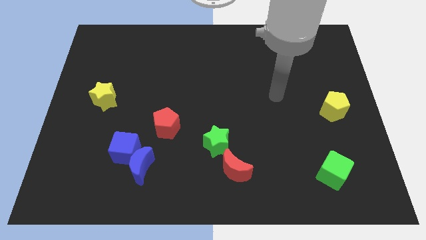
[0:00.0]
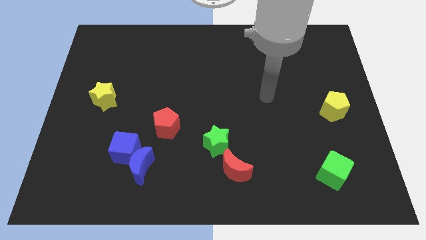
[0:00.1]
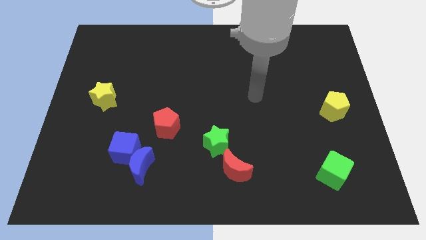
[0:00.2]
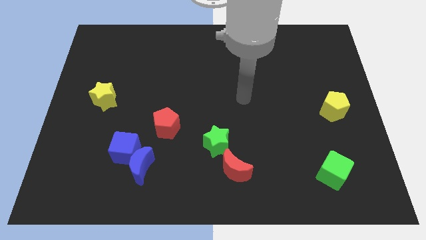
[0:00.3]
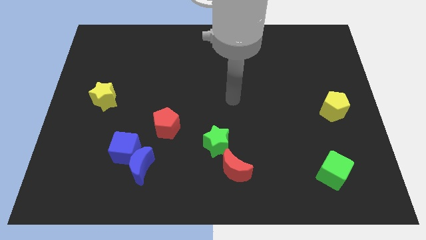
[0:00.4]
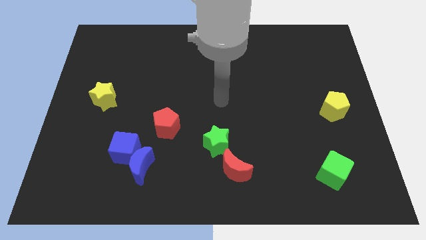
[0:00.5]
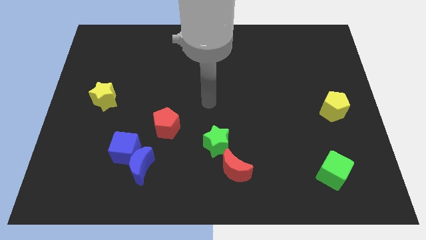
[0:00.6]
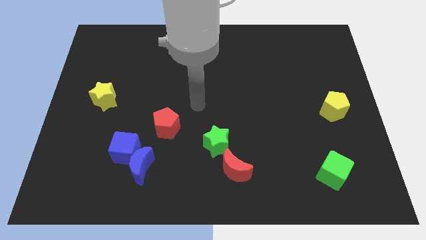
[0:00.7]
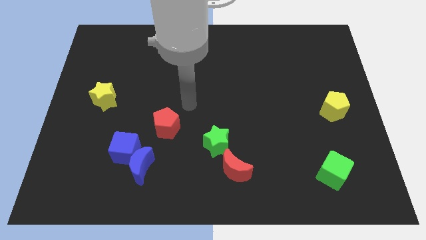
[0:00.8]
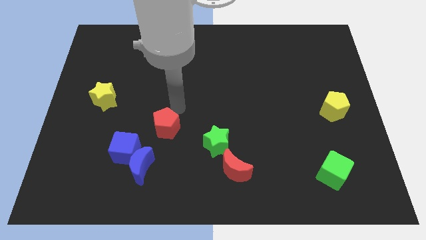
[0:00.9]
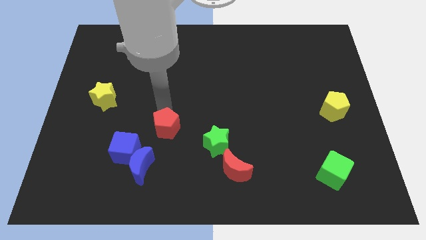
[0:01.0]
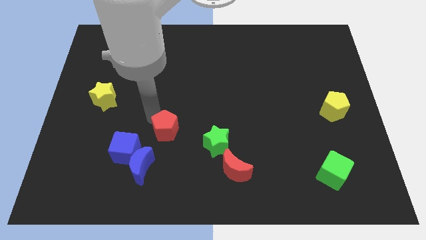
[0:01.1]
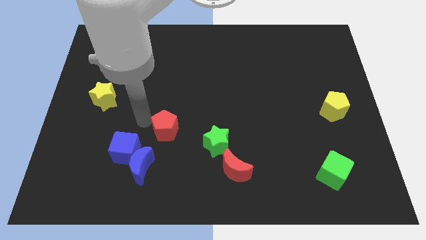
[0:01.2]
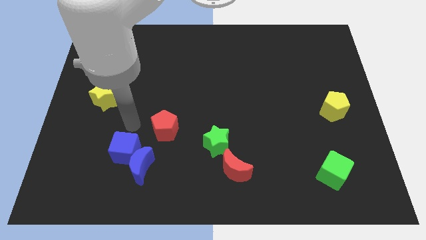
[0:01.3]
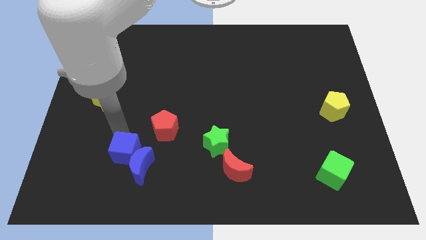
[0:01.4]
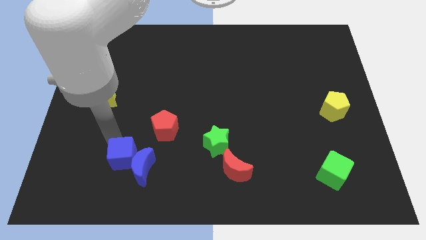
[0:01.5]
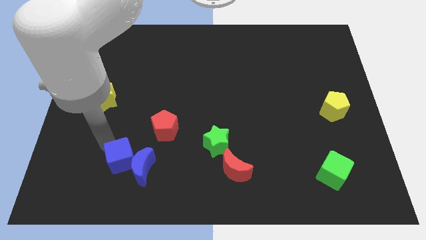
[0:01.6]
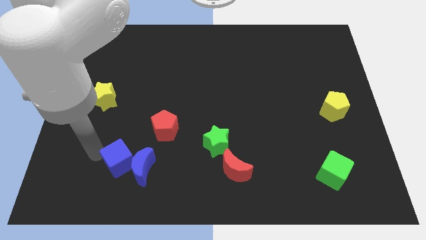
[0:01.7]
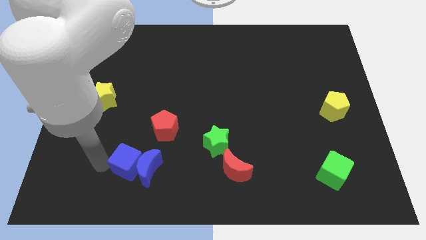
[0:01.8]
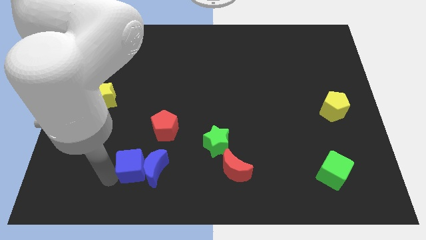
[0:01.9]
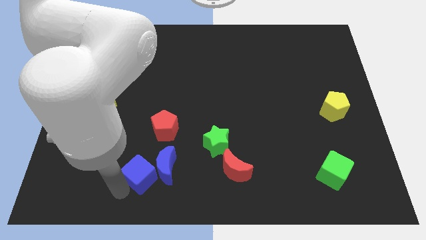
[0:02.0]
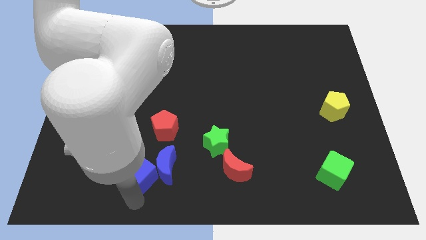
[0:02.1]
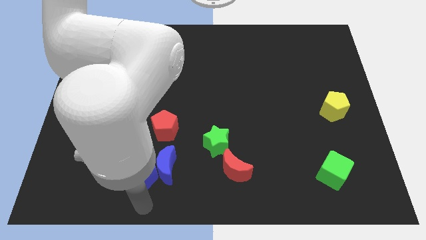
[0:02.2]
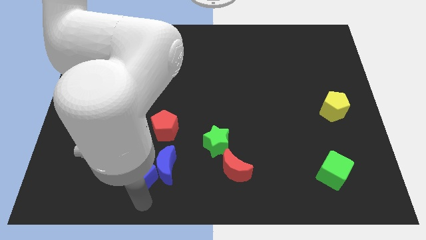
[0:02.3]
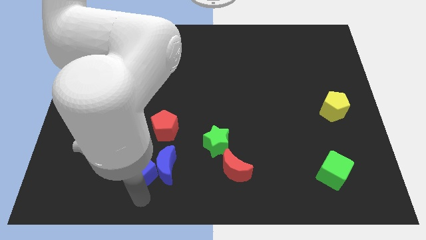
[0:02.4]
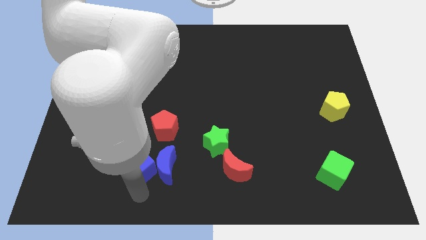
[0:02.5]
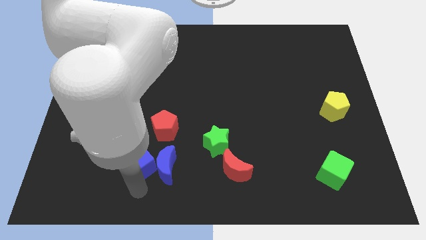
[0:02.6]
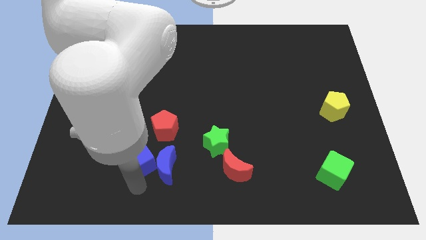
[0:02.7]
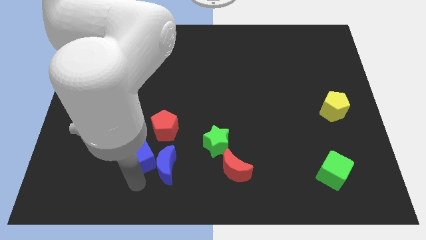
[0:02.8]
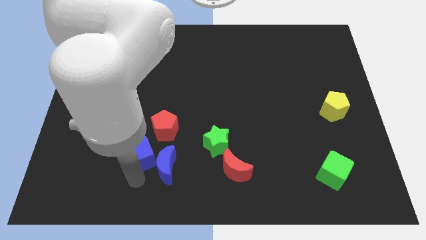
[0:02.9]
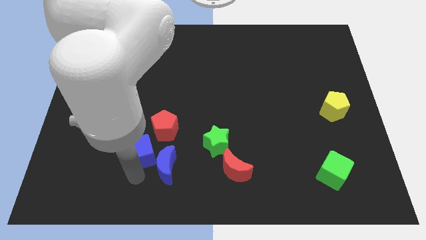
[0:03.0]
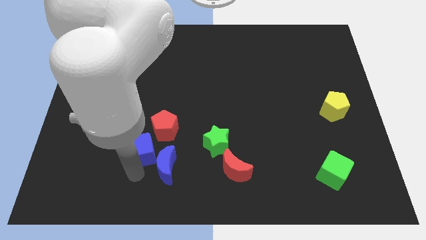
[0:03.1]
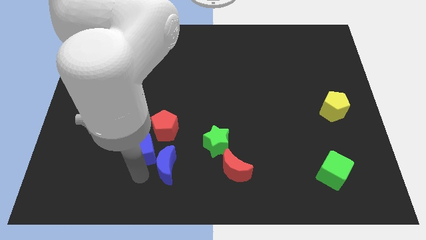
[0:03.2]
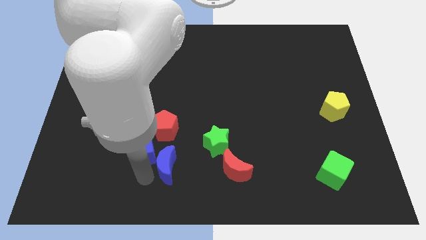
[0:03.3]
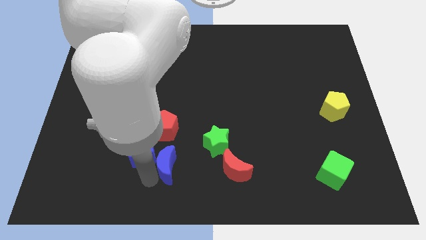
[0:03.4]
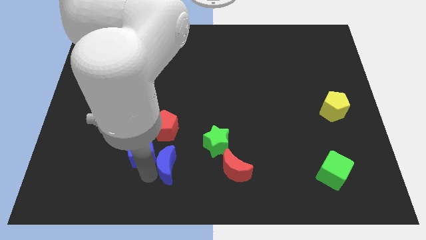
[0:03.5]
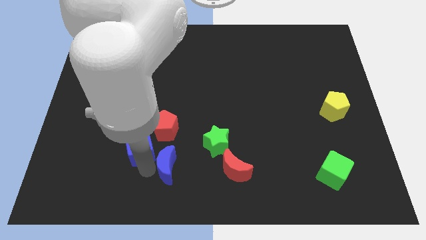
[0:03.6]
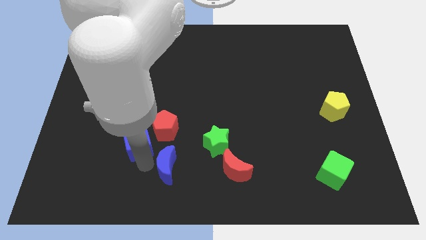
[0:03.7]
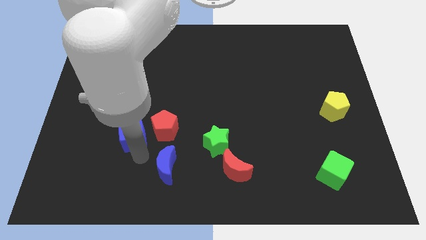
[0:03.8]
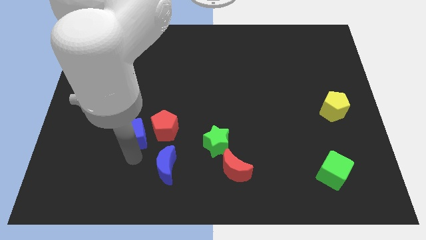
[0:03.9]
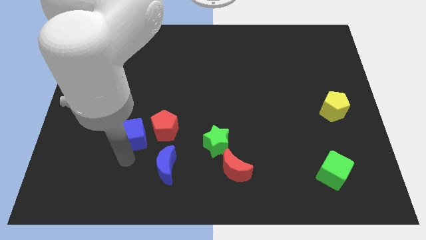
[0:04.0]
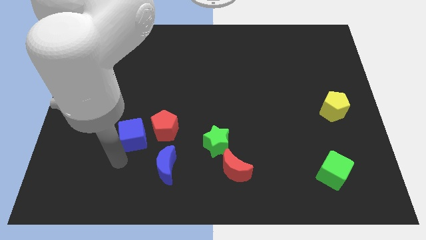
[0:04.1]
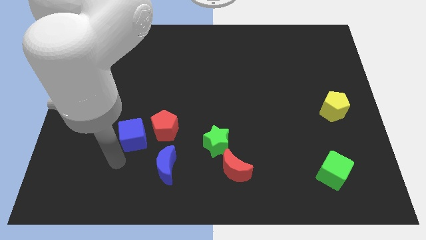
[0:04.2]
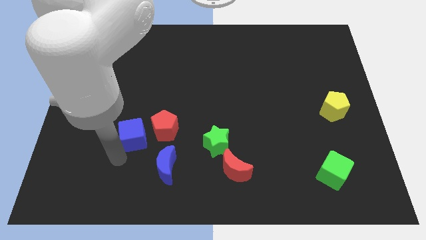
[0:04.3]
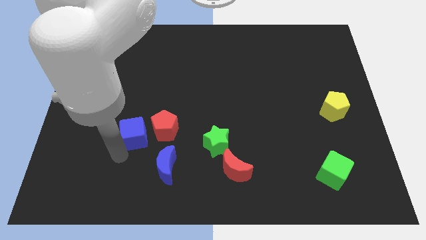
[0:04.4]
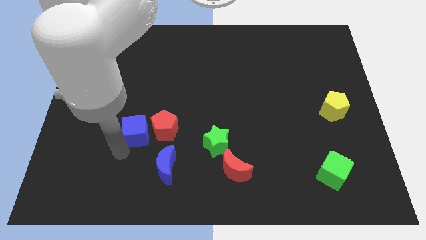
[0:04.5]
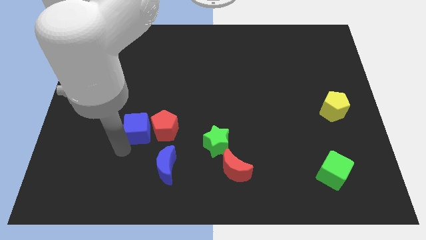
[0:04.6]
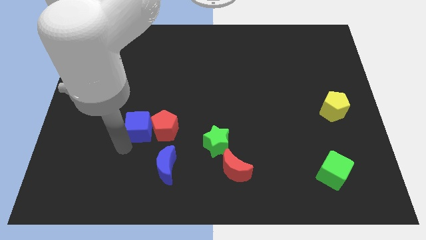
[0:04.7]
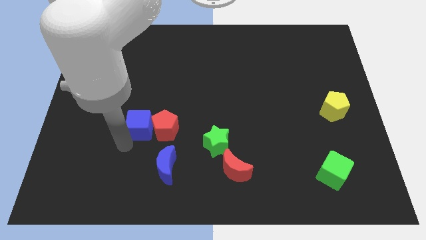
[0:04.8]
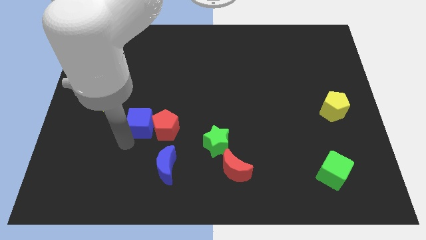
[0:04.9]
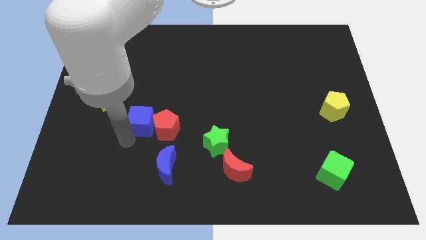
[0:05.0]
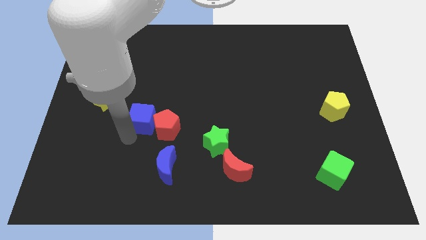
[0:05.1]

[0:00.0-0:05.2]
slightly move the blue cube diagonally up and right

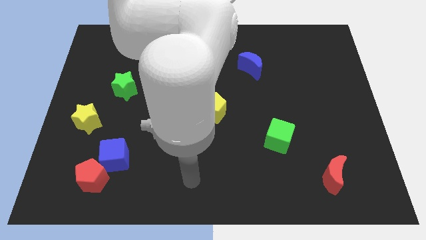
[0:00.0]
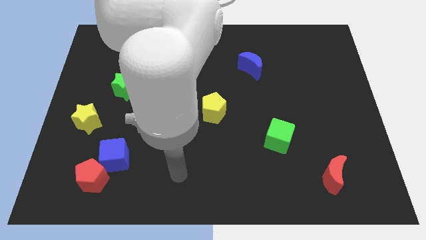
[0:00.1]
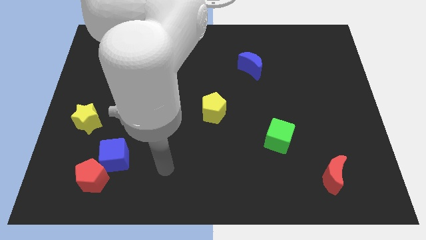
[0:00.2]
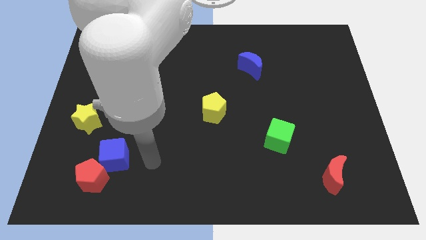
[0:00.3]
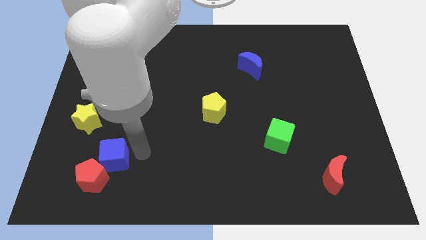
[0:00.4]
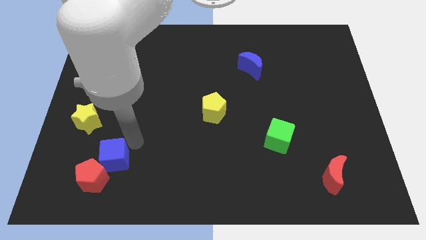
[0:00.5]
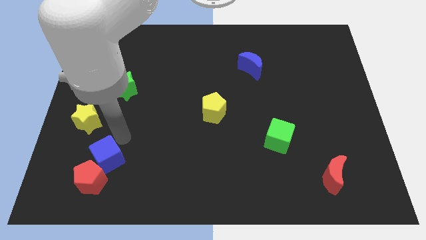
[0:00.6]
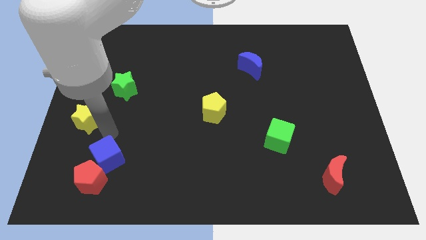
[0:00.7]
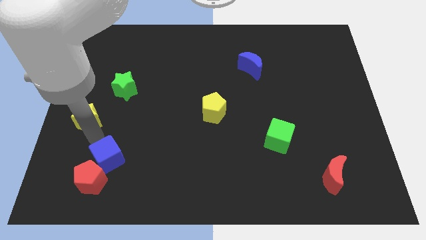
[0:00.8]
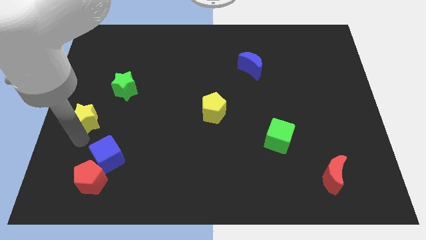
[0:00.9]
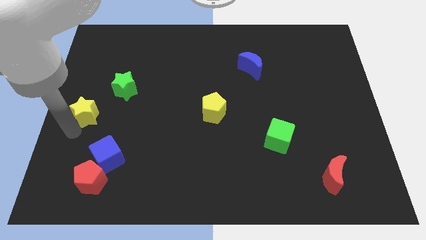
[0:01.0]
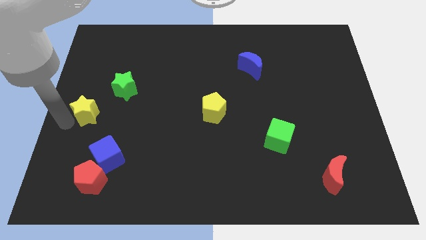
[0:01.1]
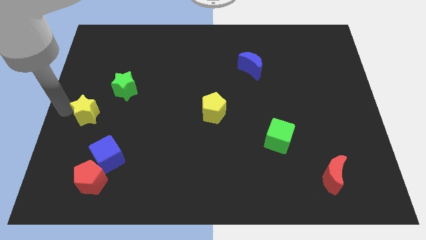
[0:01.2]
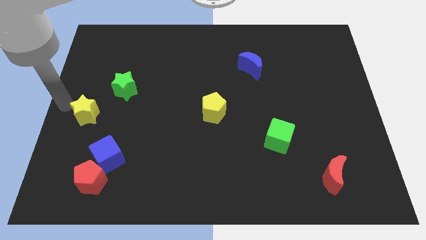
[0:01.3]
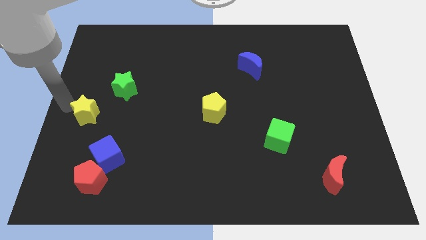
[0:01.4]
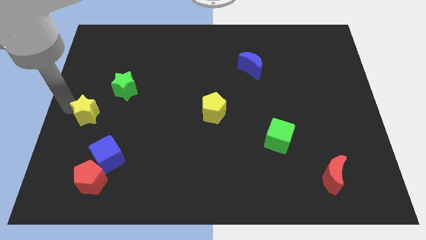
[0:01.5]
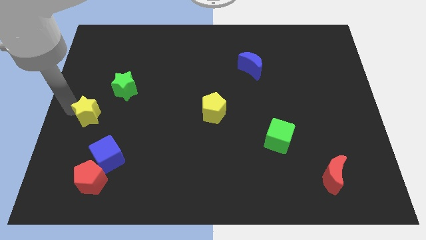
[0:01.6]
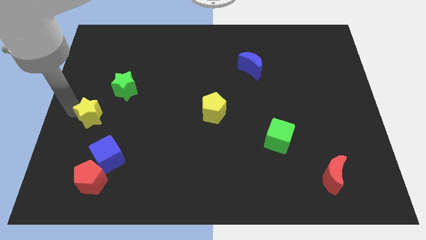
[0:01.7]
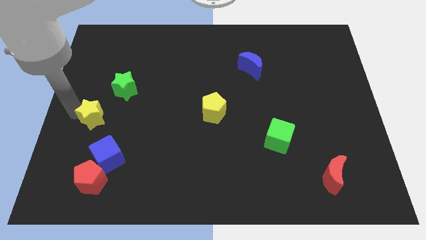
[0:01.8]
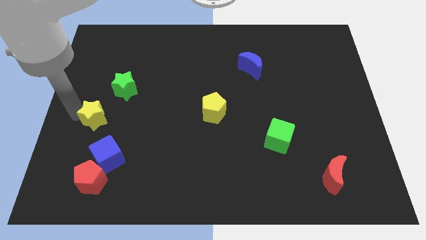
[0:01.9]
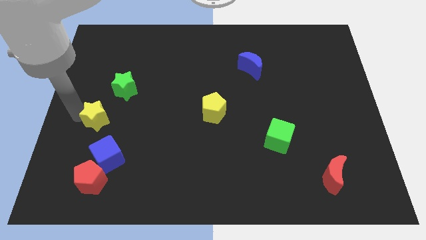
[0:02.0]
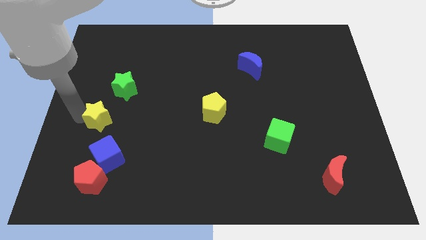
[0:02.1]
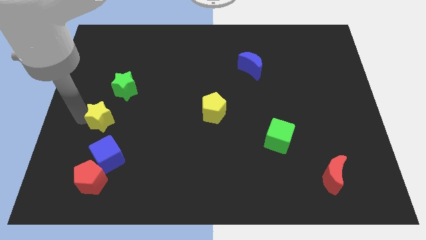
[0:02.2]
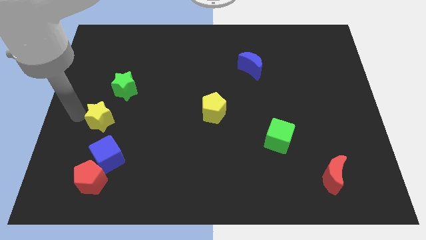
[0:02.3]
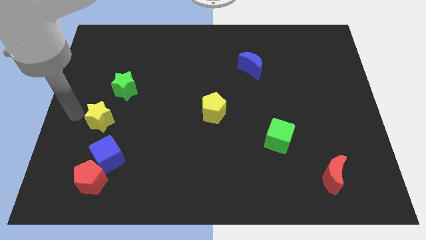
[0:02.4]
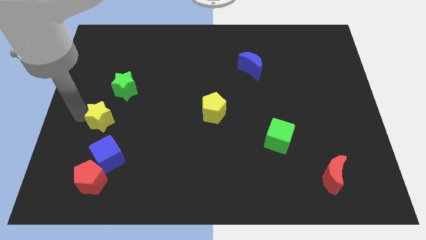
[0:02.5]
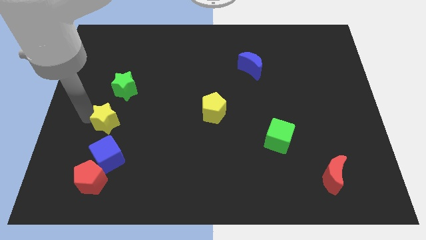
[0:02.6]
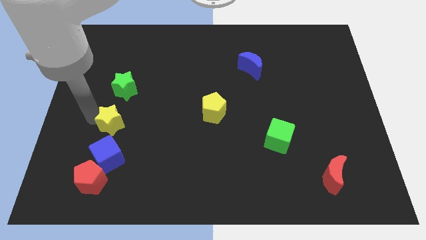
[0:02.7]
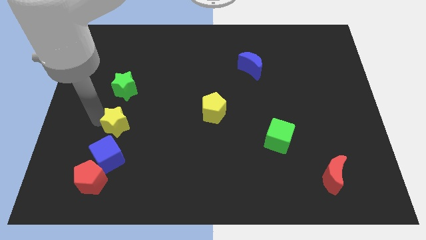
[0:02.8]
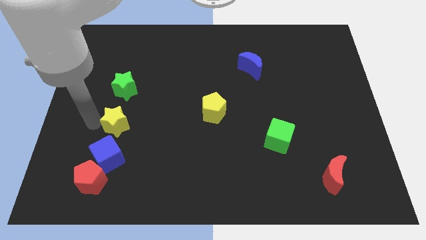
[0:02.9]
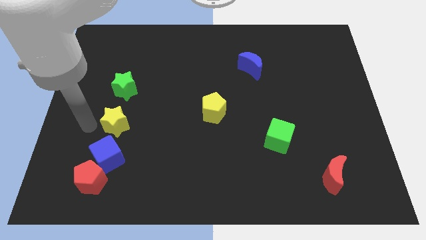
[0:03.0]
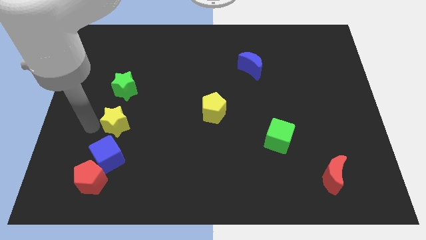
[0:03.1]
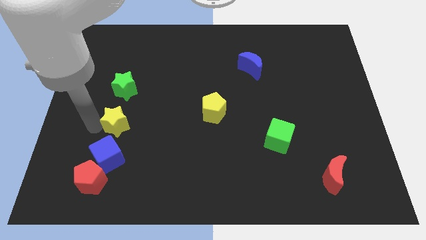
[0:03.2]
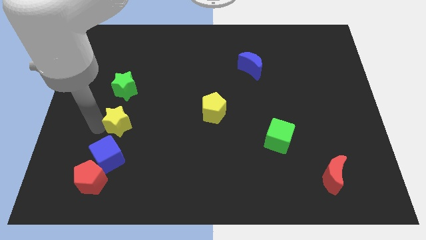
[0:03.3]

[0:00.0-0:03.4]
move the yellow star to the right a bit
